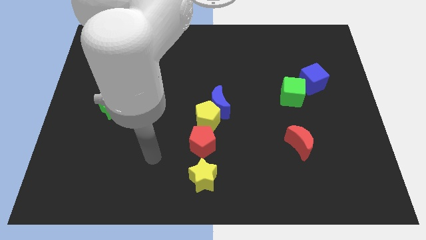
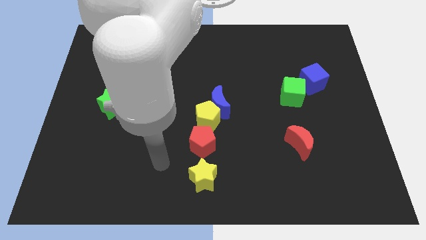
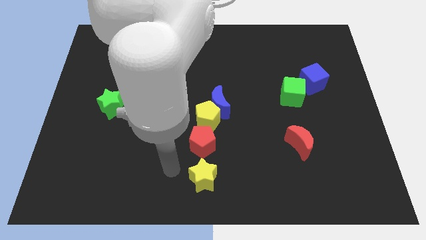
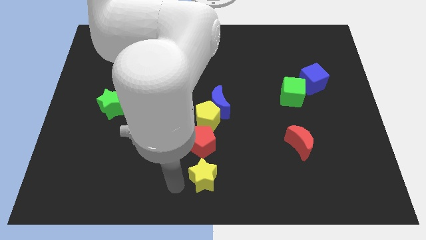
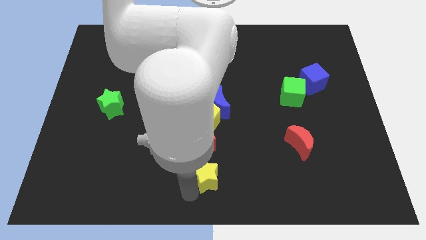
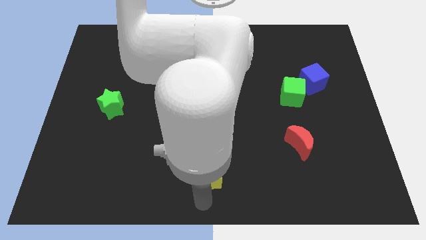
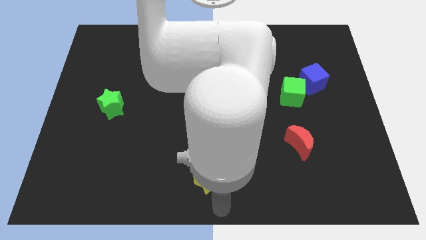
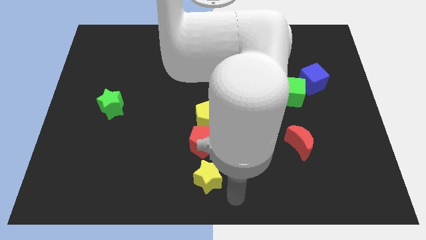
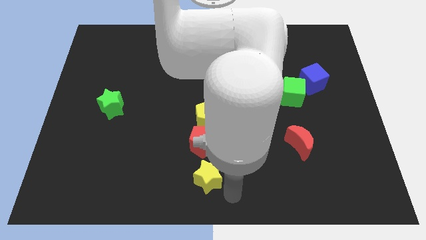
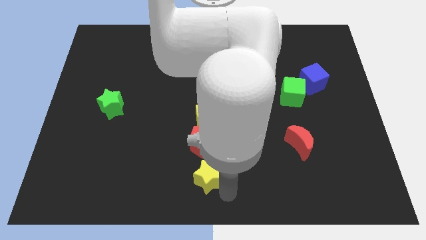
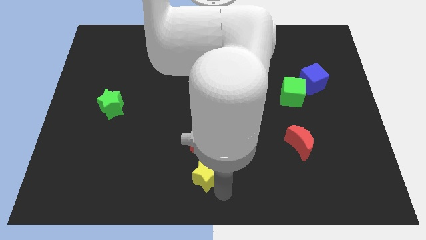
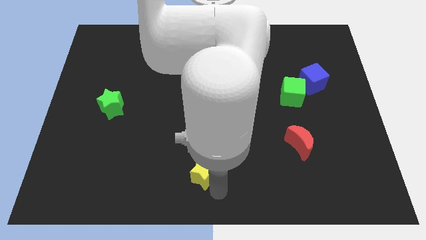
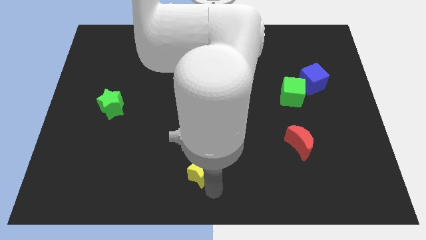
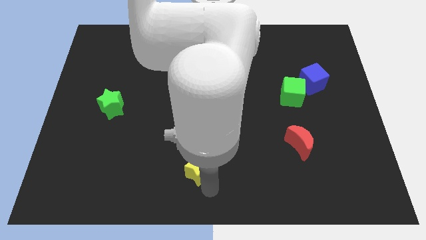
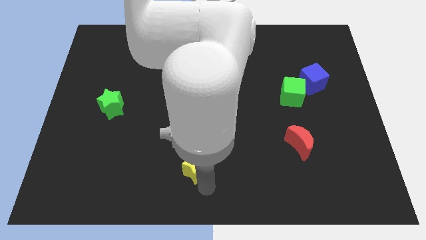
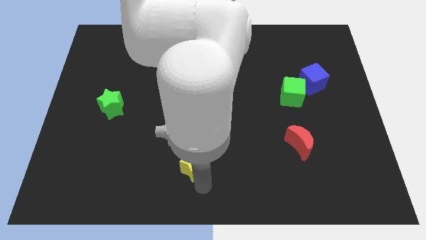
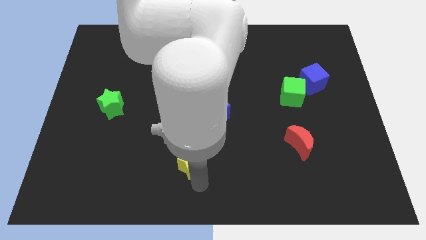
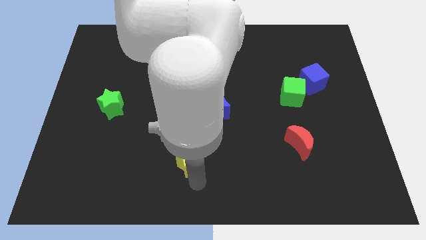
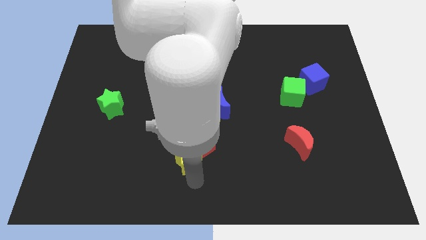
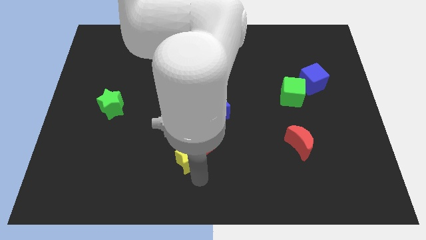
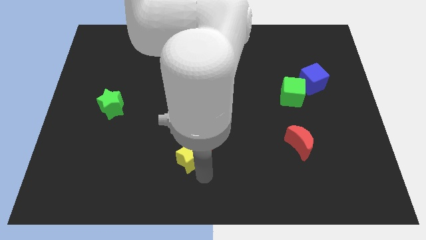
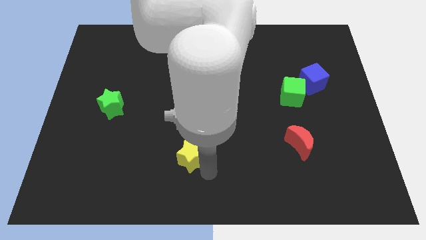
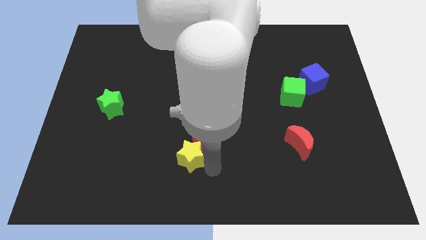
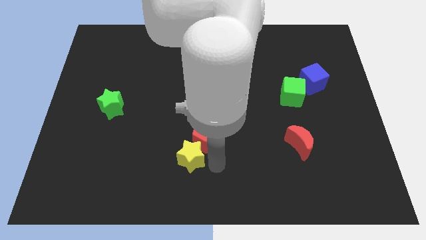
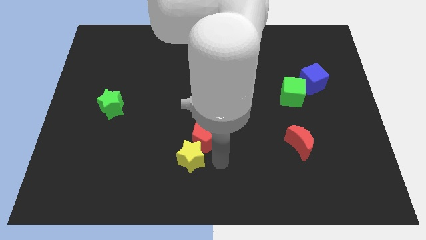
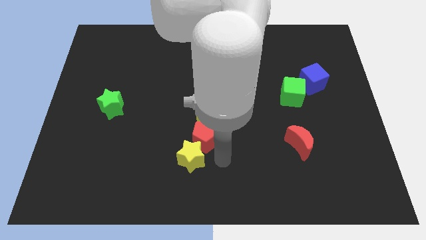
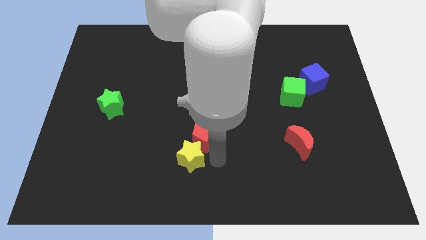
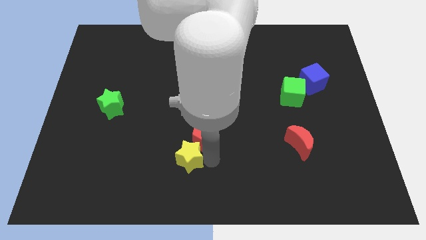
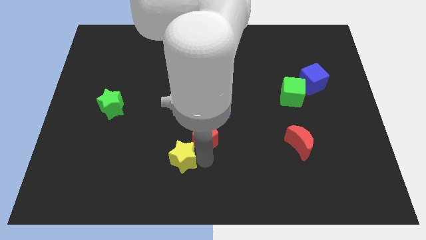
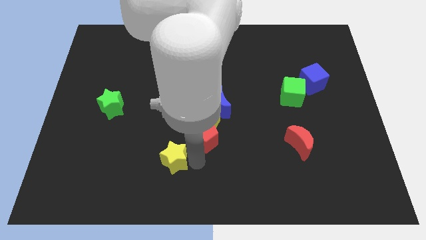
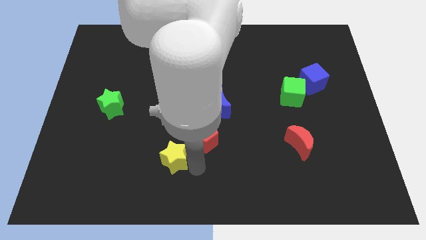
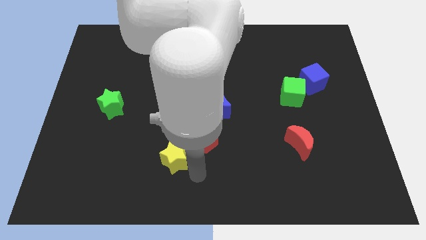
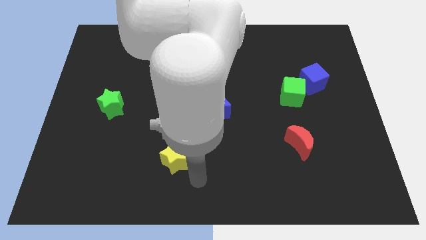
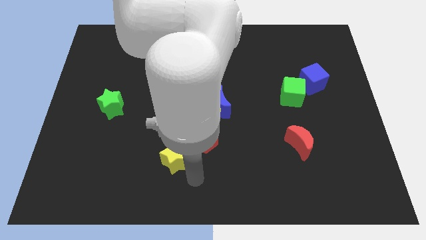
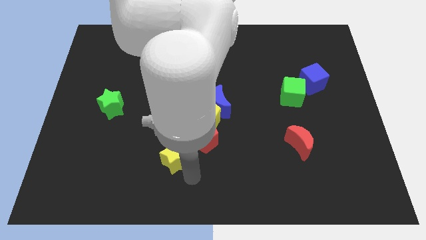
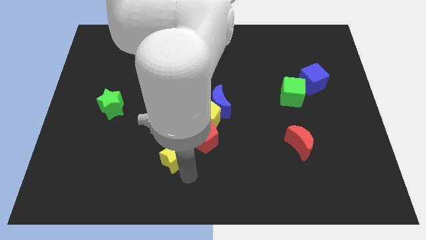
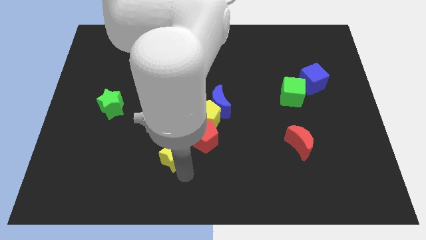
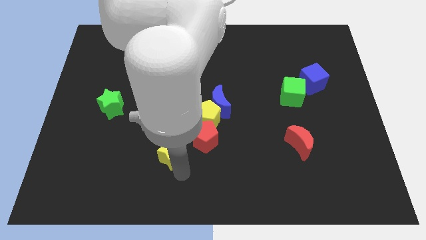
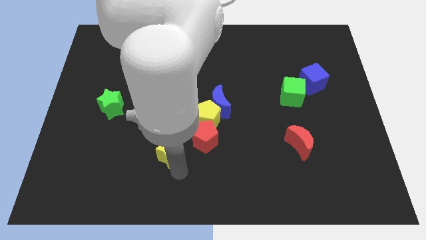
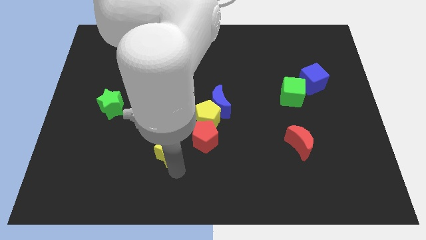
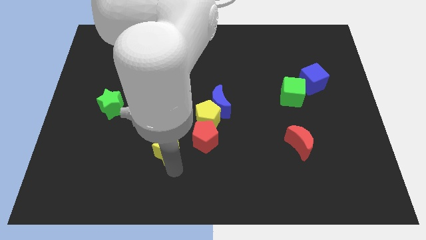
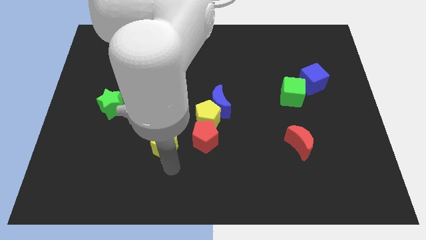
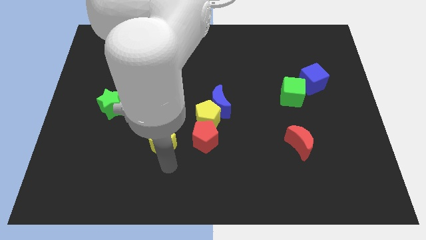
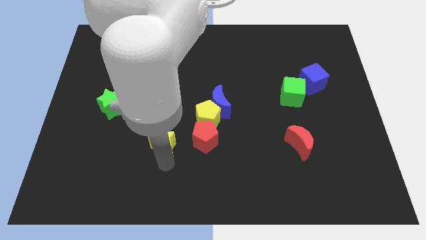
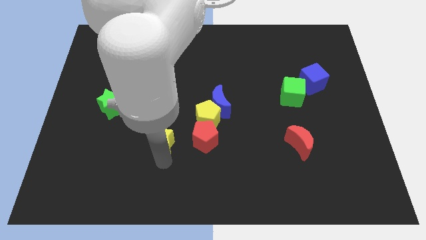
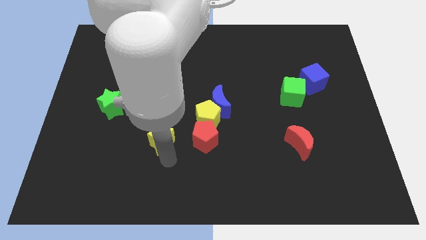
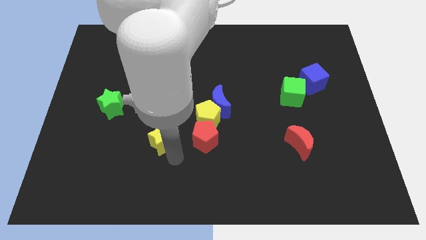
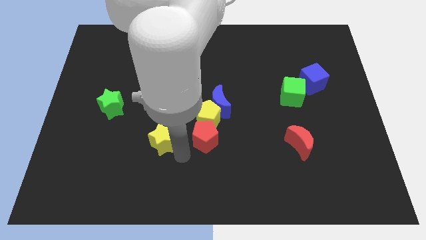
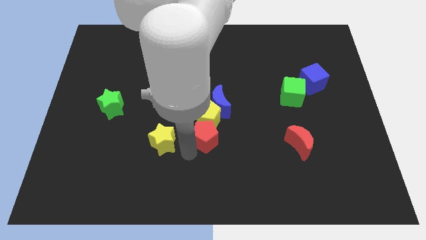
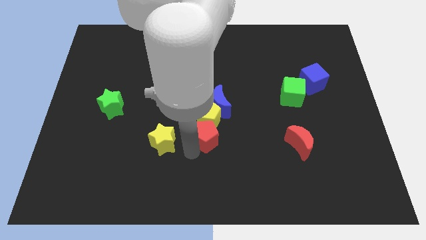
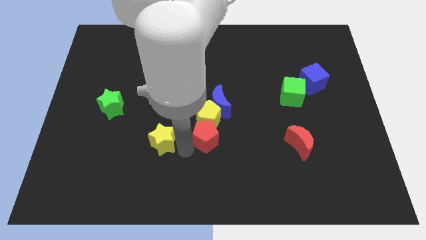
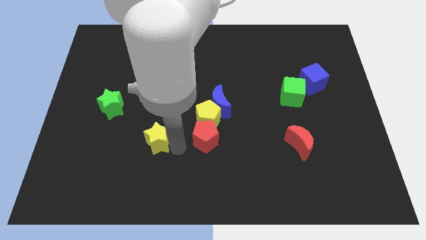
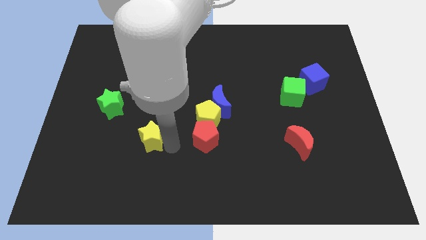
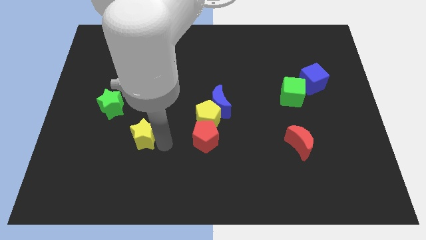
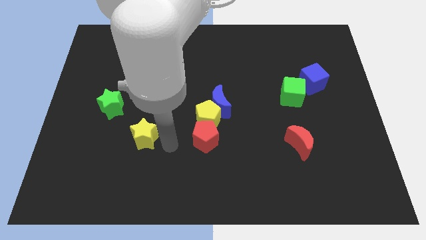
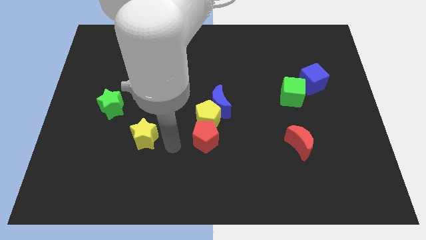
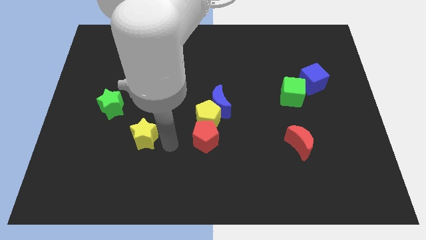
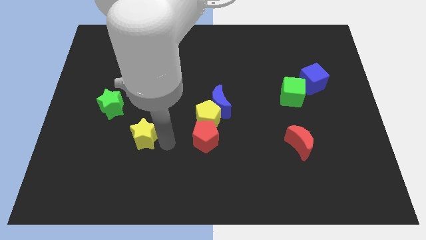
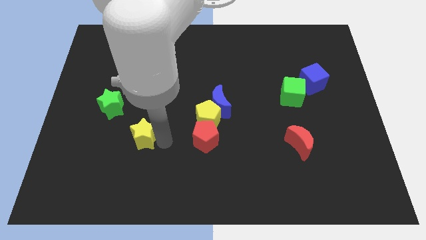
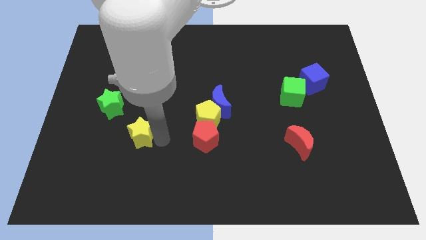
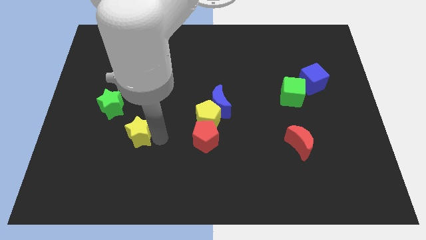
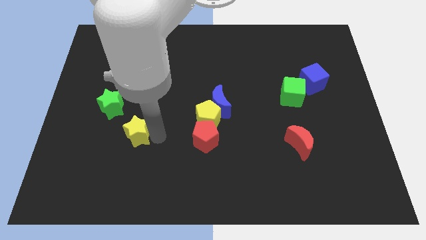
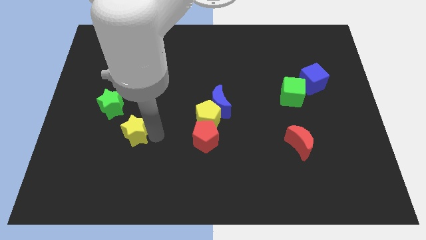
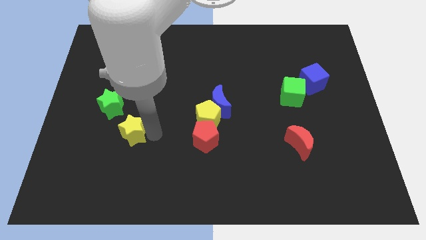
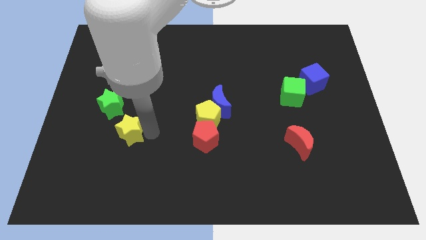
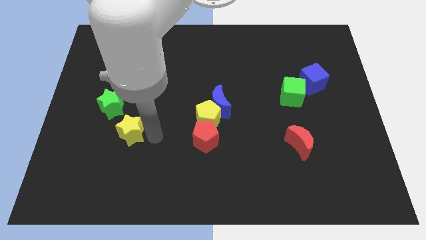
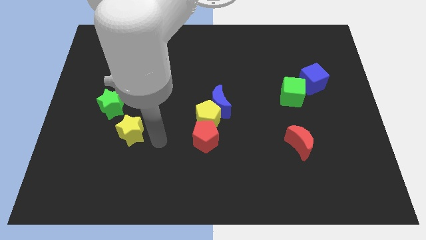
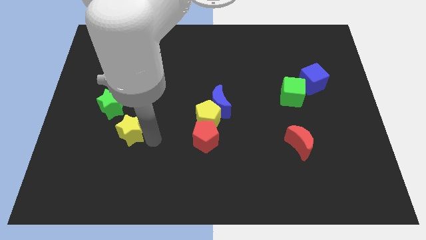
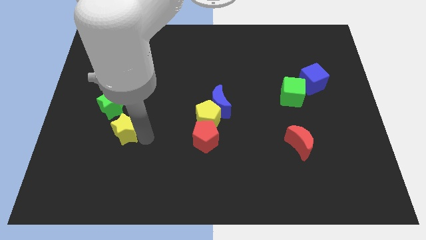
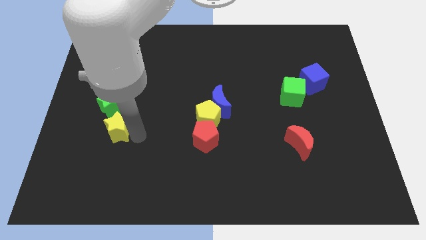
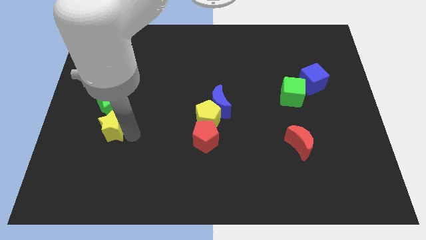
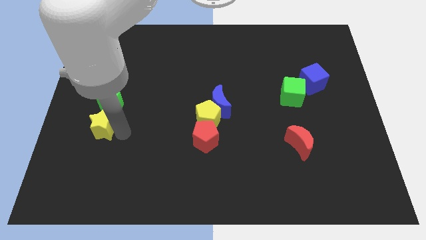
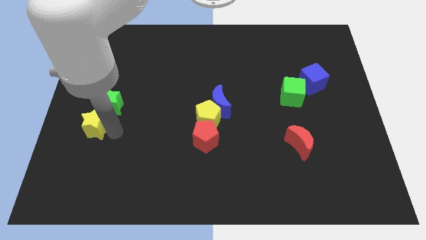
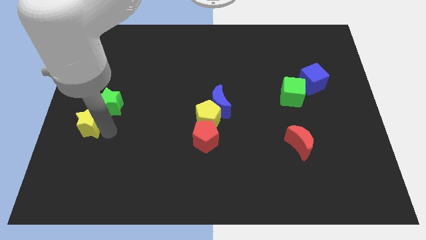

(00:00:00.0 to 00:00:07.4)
put the yellow star to the left side of the board
